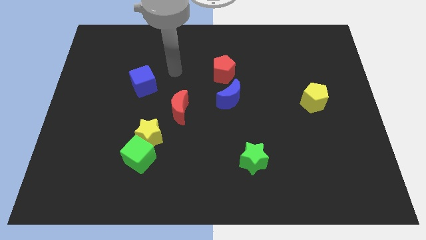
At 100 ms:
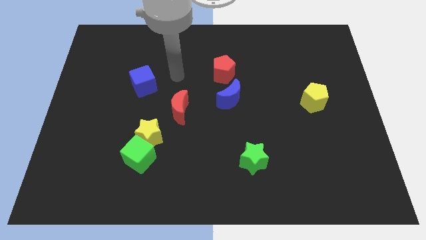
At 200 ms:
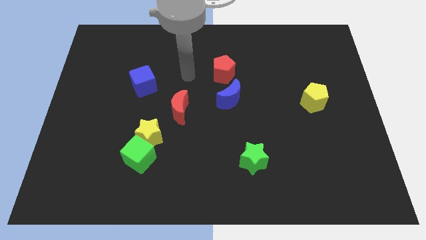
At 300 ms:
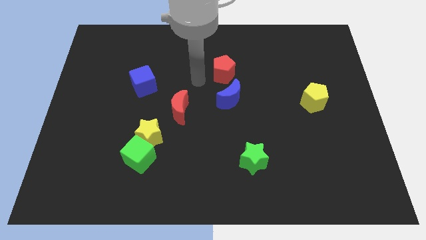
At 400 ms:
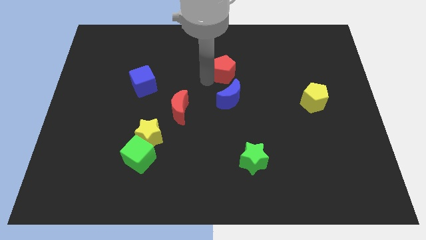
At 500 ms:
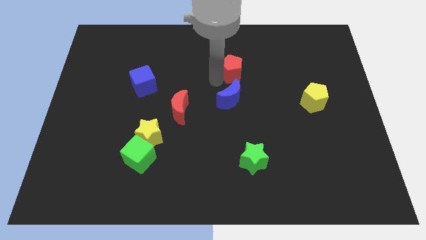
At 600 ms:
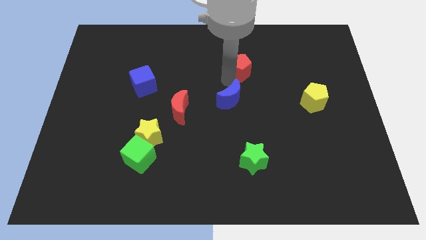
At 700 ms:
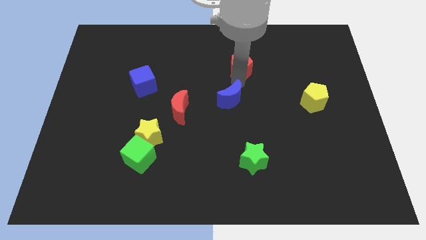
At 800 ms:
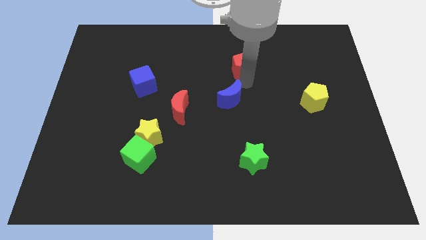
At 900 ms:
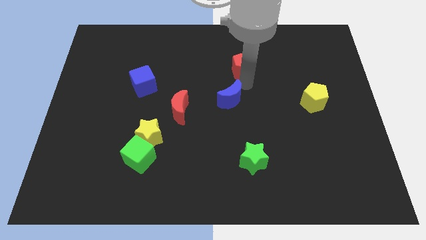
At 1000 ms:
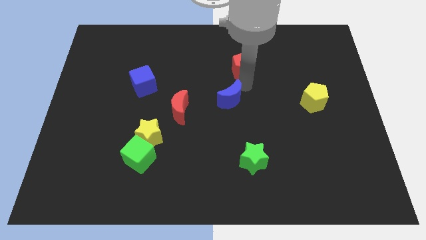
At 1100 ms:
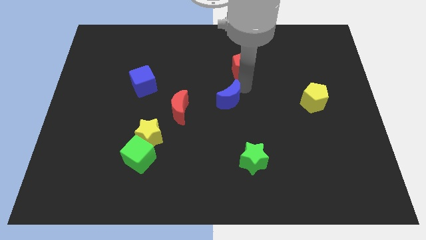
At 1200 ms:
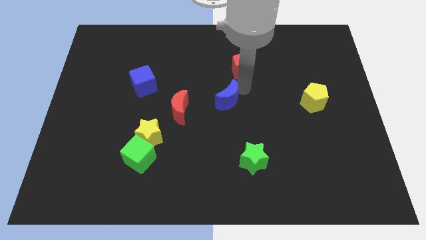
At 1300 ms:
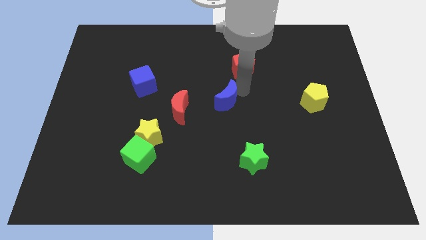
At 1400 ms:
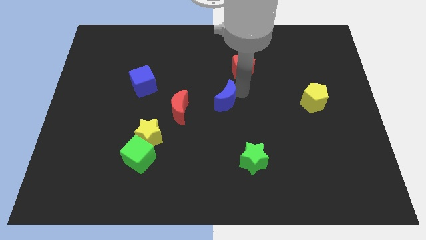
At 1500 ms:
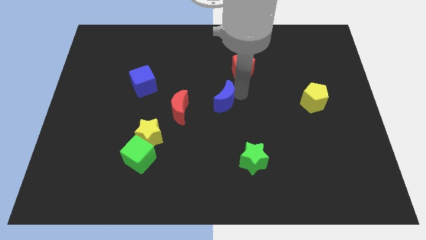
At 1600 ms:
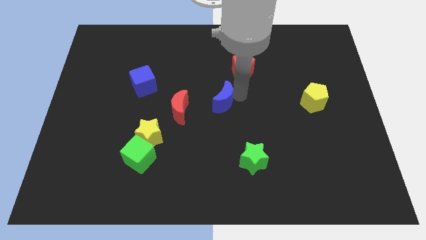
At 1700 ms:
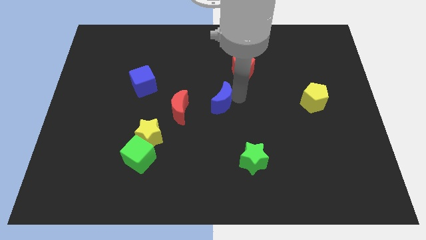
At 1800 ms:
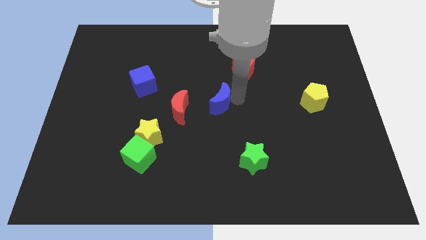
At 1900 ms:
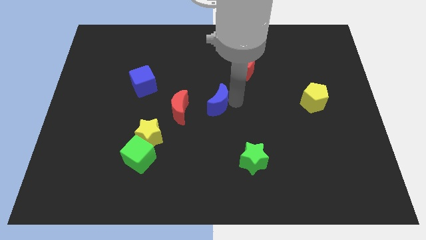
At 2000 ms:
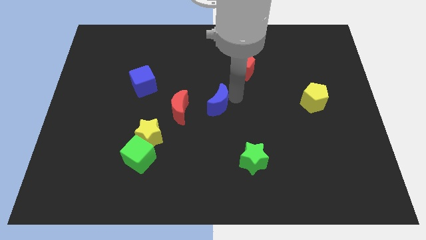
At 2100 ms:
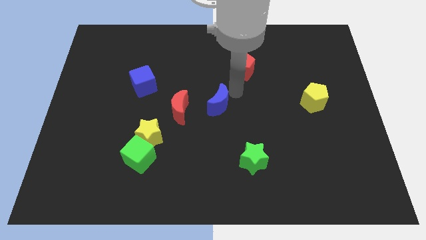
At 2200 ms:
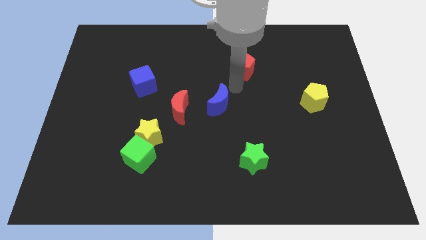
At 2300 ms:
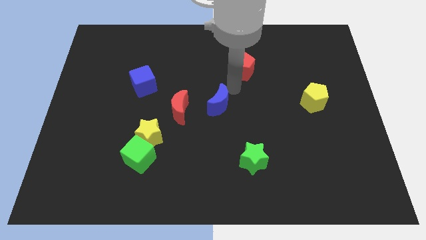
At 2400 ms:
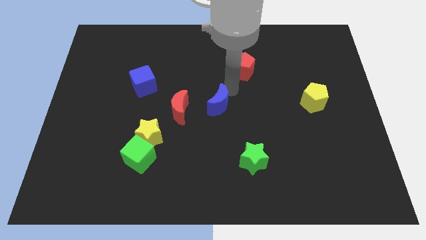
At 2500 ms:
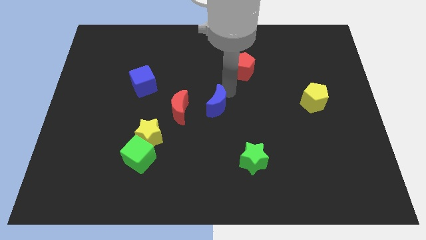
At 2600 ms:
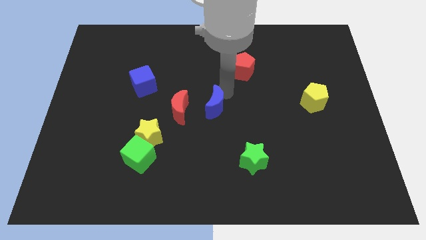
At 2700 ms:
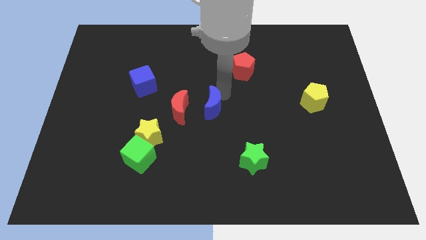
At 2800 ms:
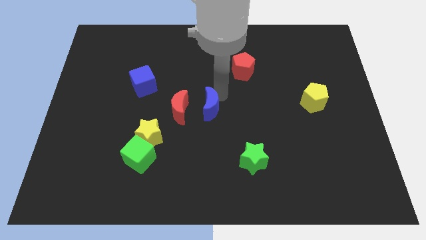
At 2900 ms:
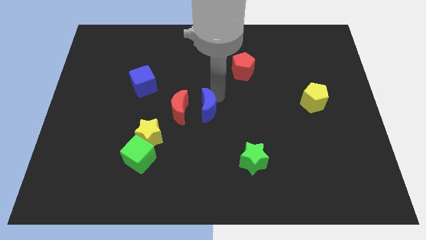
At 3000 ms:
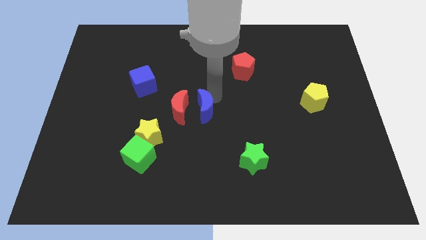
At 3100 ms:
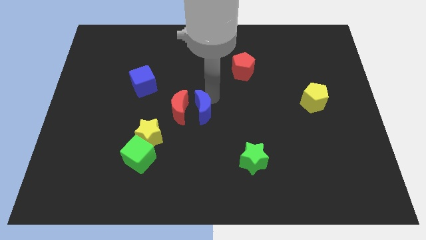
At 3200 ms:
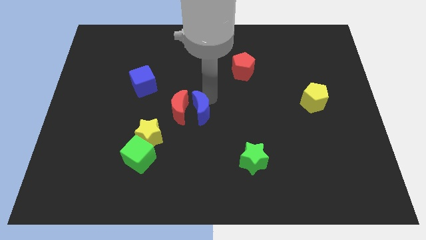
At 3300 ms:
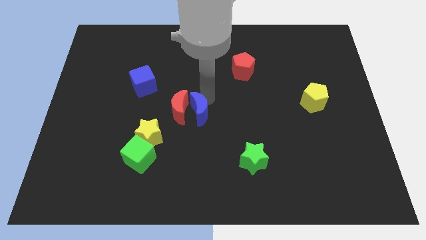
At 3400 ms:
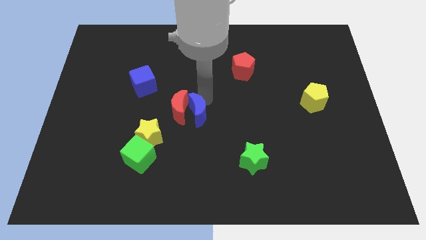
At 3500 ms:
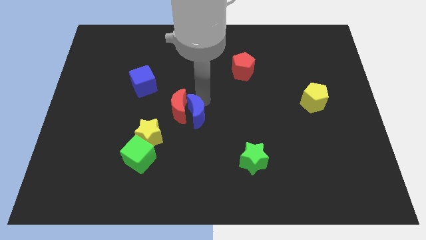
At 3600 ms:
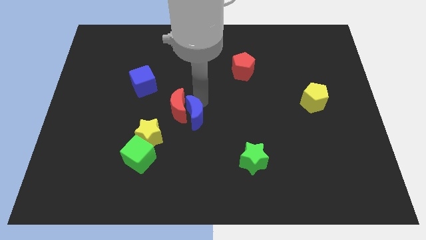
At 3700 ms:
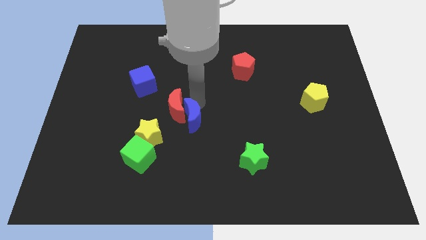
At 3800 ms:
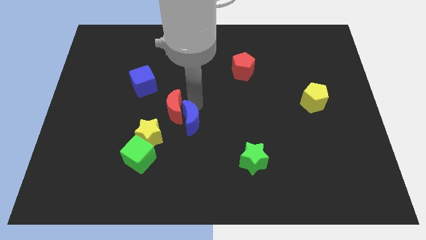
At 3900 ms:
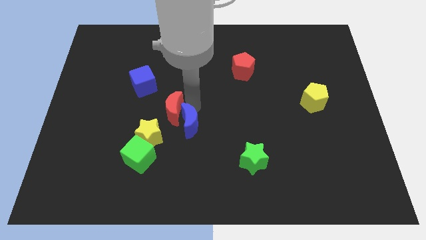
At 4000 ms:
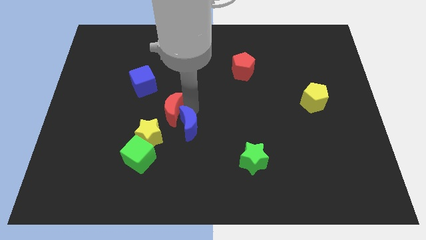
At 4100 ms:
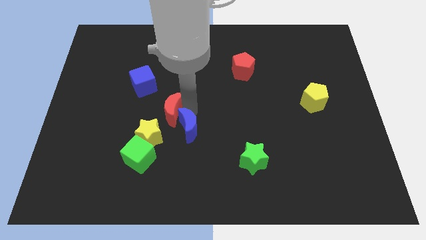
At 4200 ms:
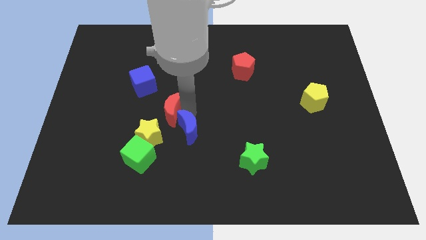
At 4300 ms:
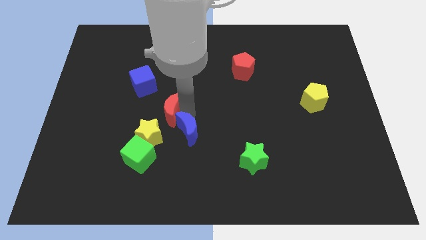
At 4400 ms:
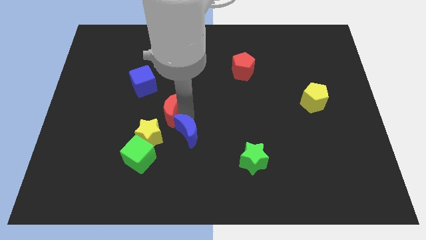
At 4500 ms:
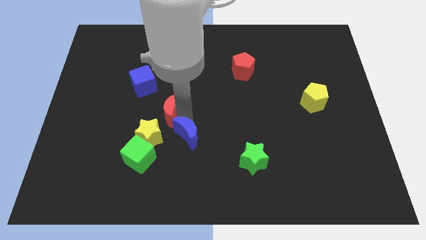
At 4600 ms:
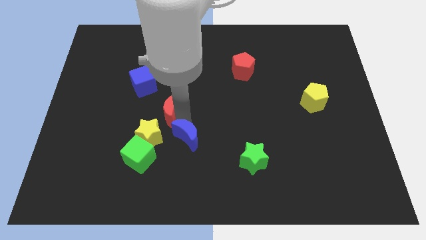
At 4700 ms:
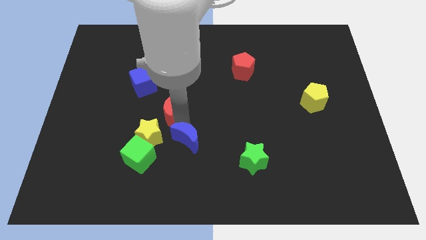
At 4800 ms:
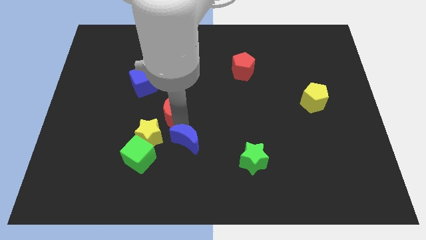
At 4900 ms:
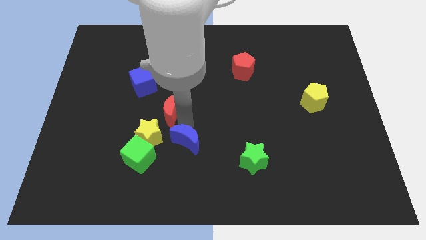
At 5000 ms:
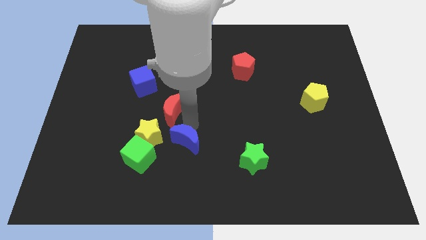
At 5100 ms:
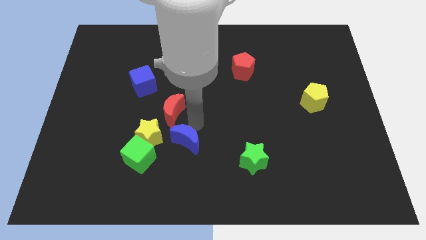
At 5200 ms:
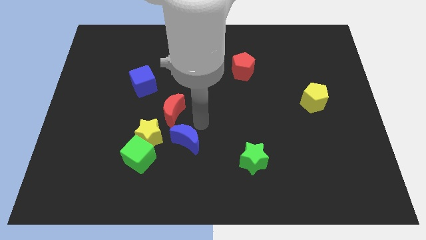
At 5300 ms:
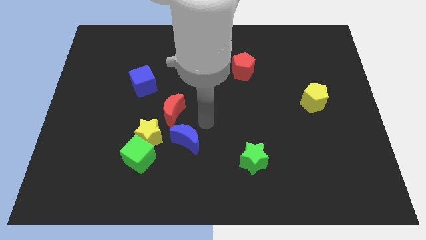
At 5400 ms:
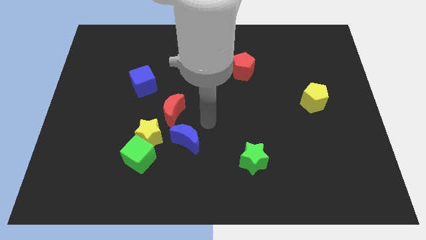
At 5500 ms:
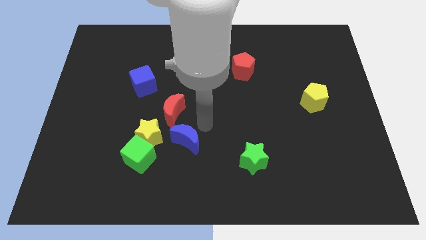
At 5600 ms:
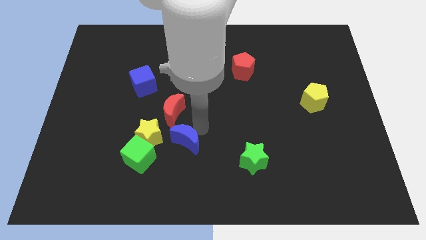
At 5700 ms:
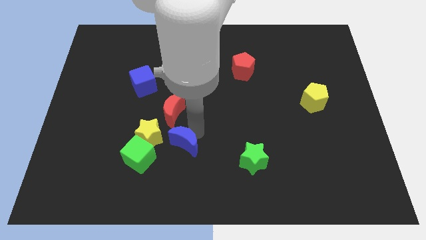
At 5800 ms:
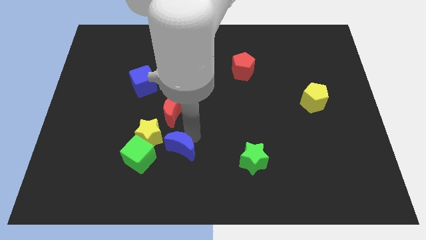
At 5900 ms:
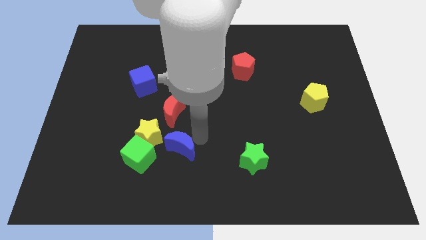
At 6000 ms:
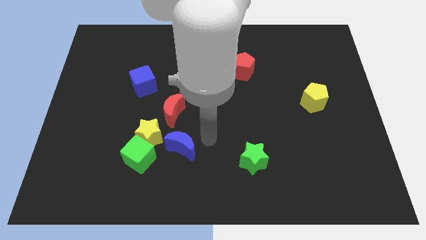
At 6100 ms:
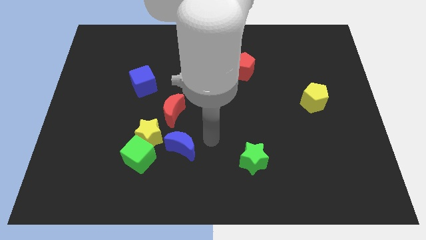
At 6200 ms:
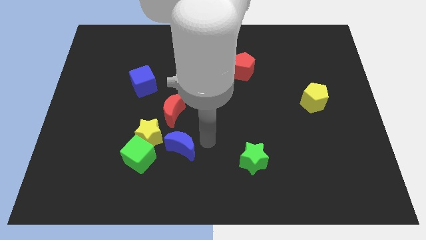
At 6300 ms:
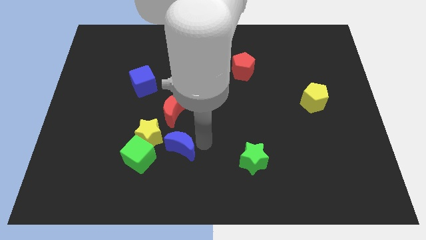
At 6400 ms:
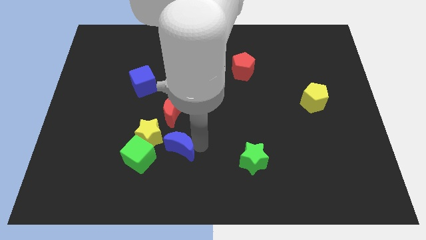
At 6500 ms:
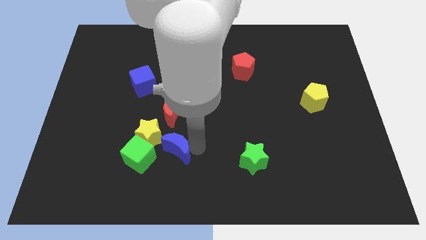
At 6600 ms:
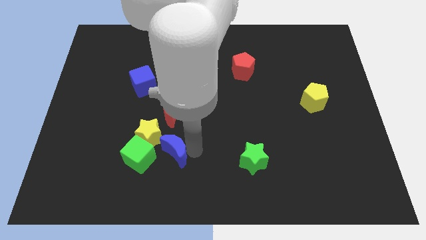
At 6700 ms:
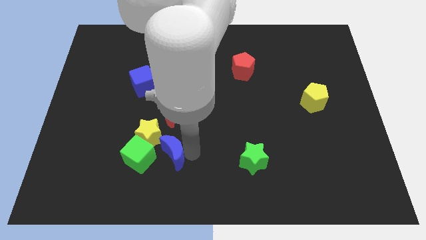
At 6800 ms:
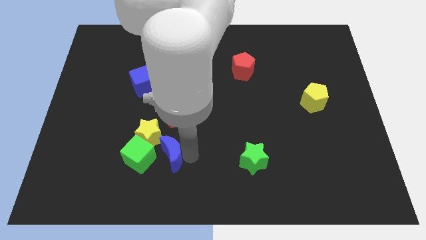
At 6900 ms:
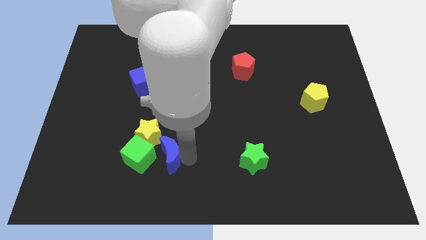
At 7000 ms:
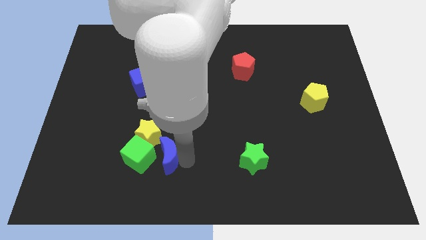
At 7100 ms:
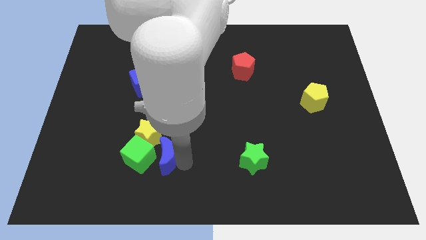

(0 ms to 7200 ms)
slide the blue moon to the green cube
